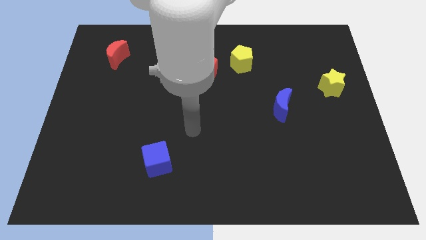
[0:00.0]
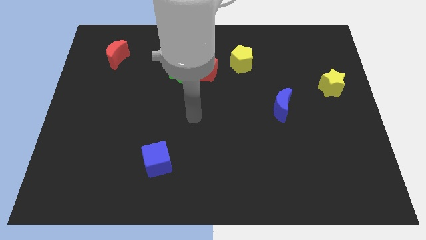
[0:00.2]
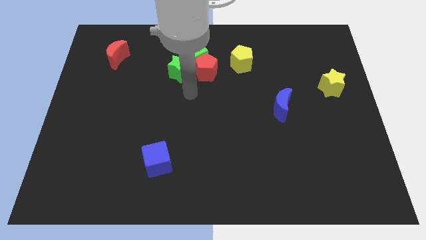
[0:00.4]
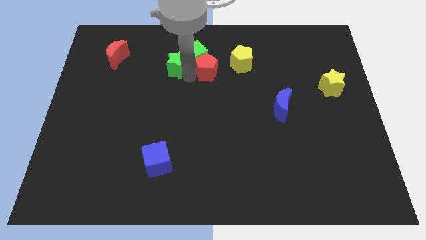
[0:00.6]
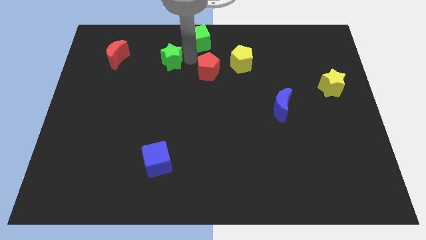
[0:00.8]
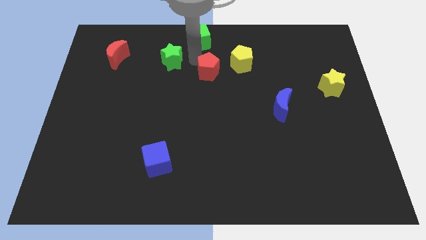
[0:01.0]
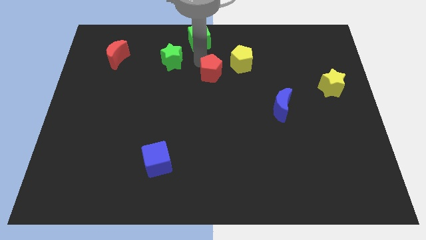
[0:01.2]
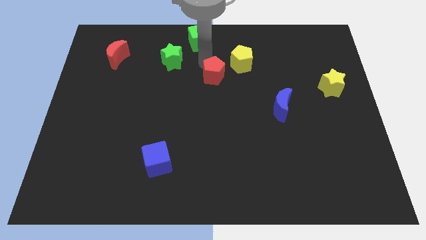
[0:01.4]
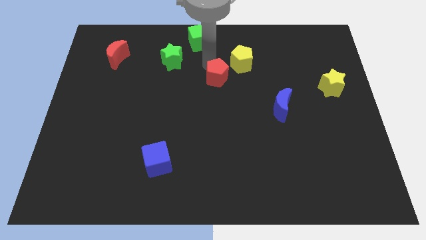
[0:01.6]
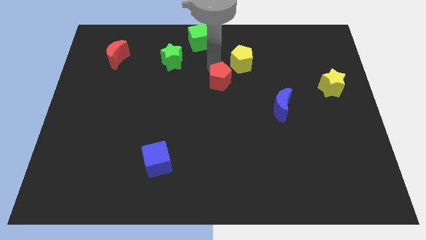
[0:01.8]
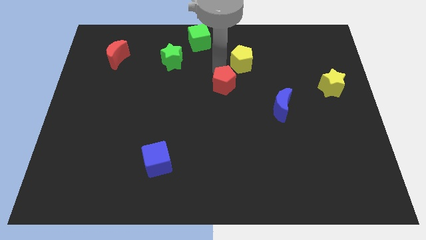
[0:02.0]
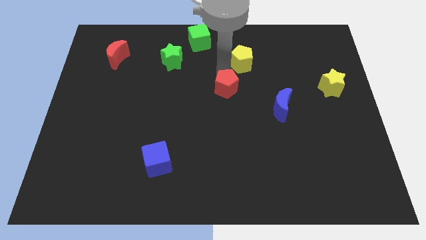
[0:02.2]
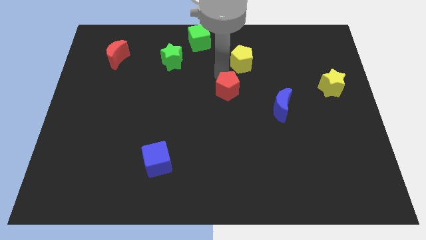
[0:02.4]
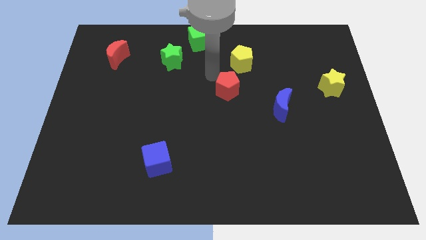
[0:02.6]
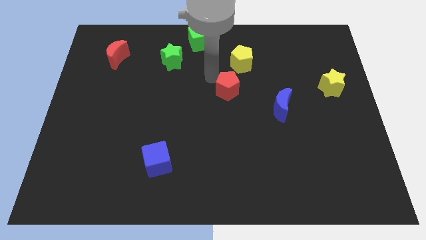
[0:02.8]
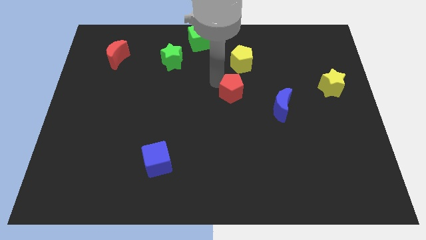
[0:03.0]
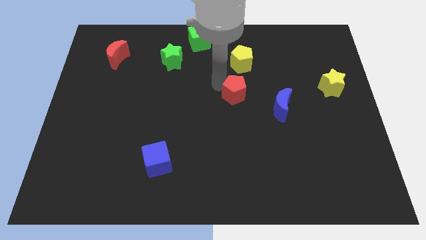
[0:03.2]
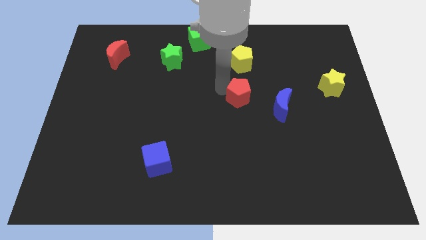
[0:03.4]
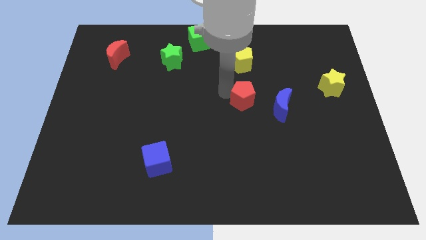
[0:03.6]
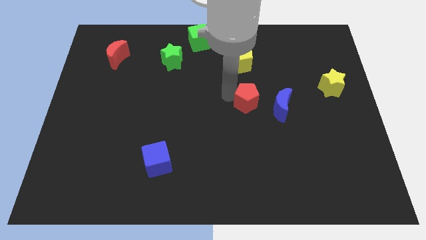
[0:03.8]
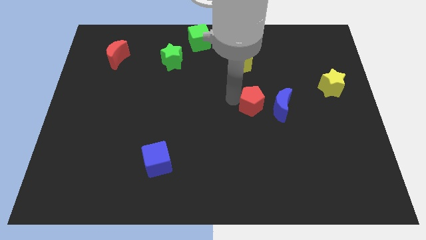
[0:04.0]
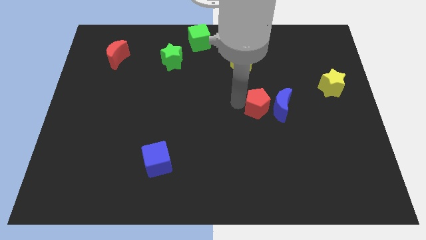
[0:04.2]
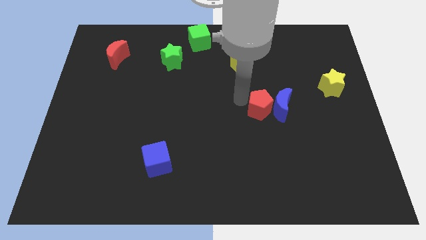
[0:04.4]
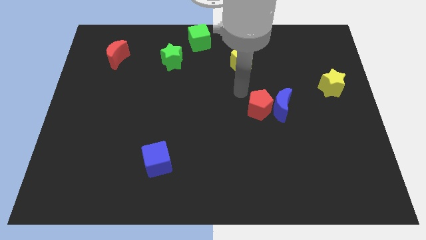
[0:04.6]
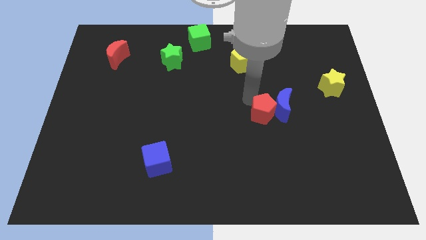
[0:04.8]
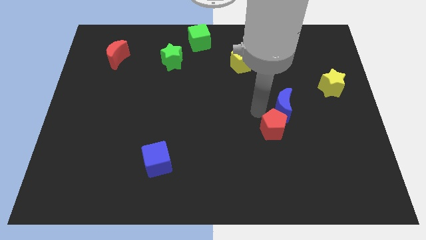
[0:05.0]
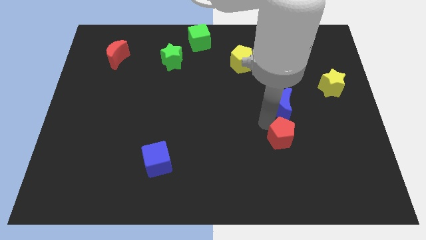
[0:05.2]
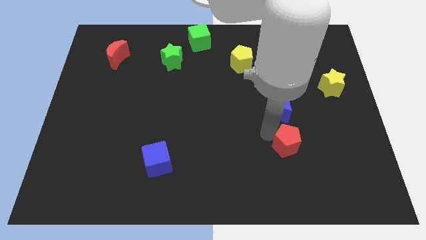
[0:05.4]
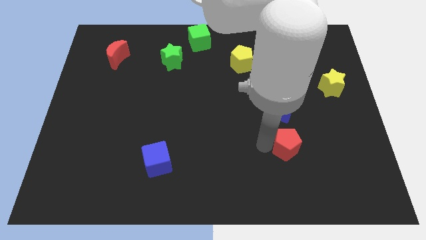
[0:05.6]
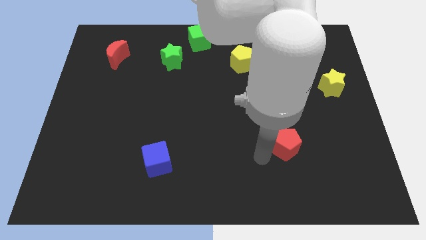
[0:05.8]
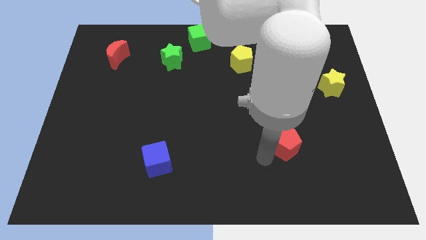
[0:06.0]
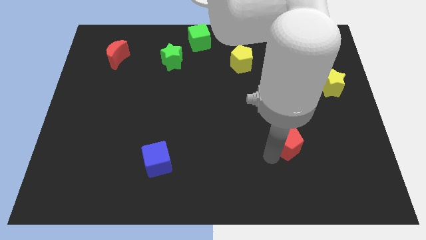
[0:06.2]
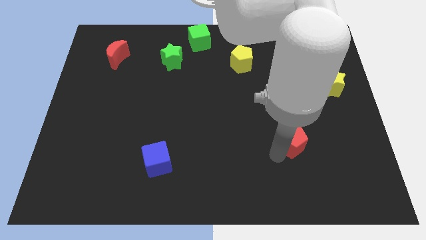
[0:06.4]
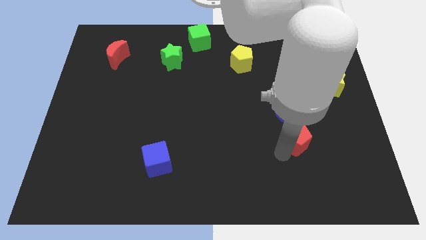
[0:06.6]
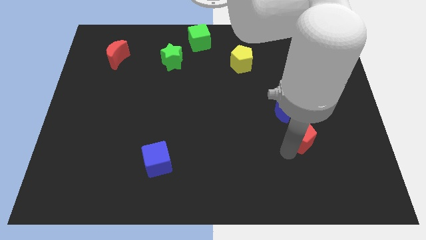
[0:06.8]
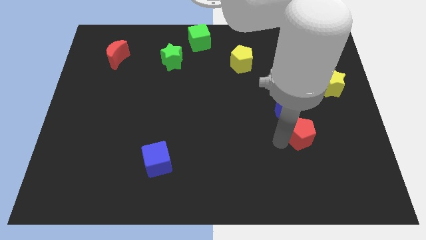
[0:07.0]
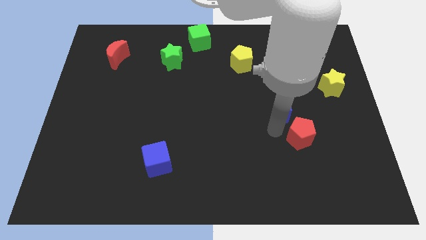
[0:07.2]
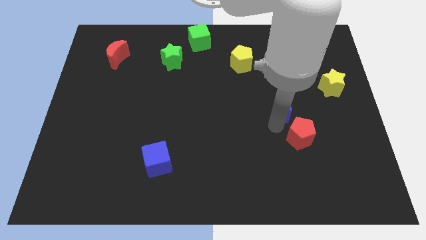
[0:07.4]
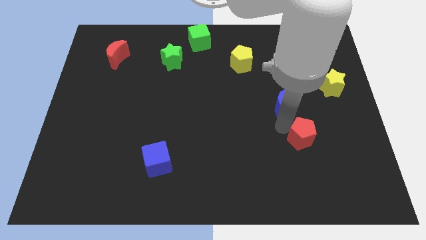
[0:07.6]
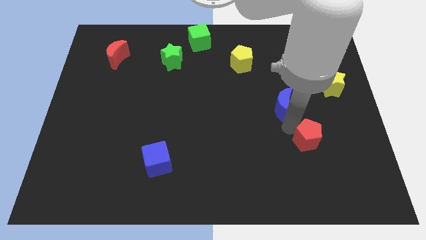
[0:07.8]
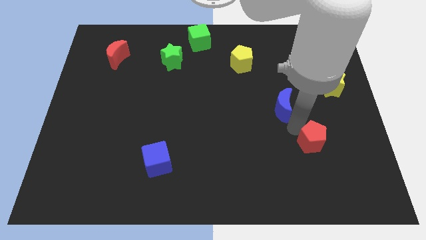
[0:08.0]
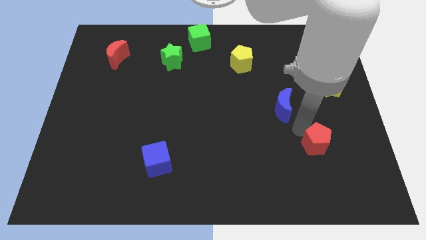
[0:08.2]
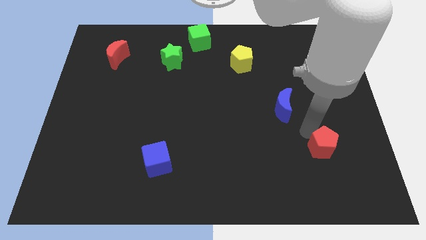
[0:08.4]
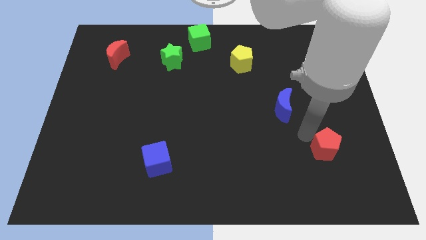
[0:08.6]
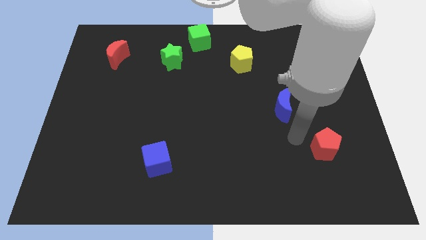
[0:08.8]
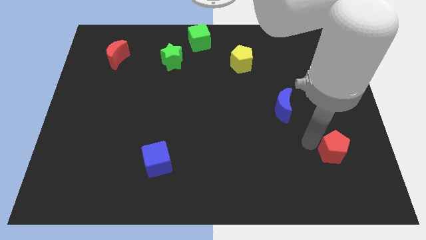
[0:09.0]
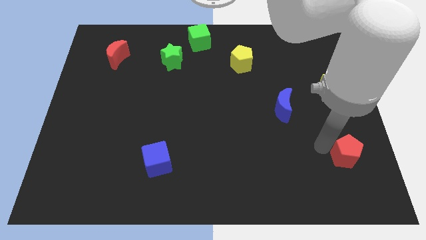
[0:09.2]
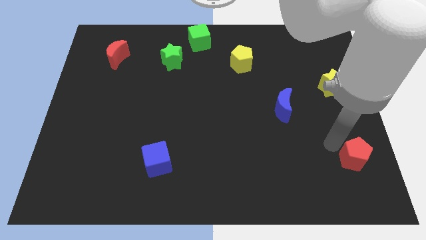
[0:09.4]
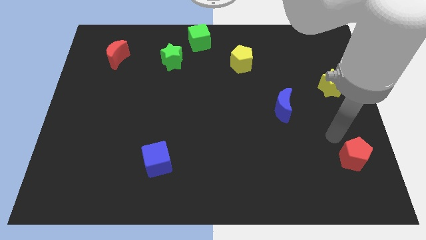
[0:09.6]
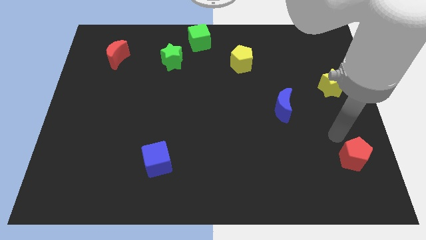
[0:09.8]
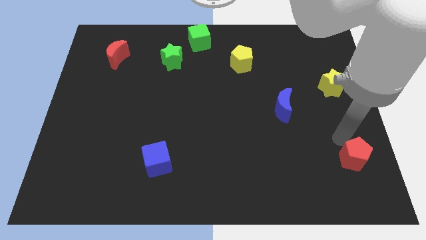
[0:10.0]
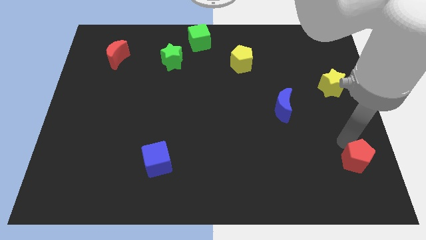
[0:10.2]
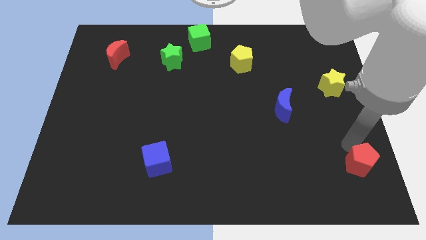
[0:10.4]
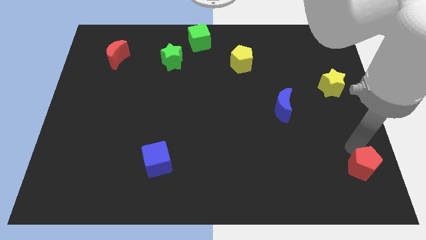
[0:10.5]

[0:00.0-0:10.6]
put the red pentagon to the lower right corner

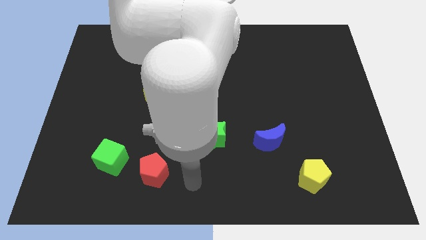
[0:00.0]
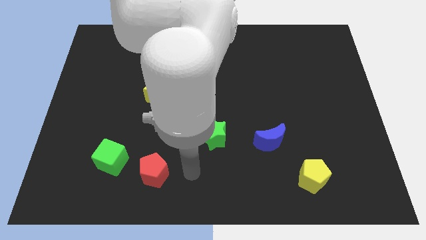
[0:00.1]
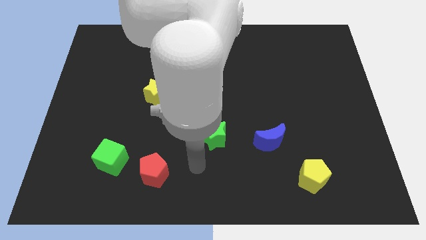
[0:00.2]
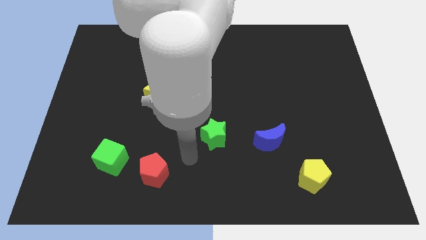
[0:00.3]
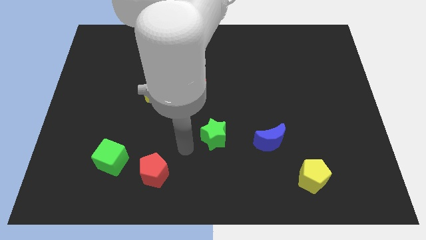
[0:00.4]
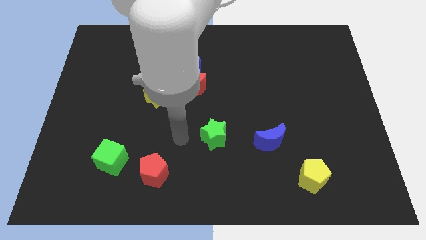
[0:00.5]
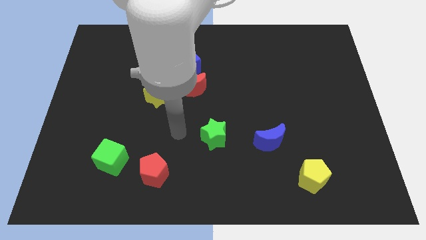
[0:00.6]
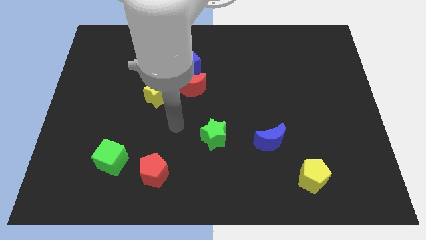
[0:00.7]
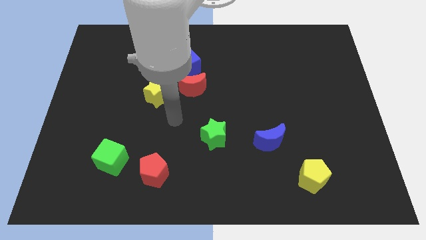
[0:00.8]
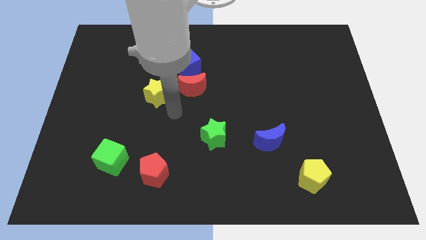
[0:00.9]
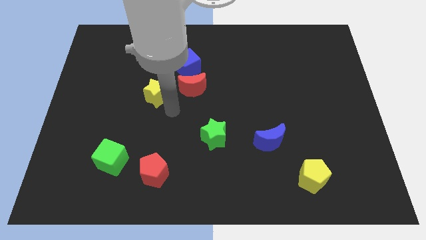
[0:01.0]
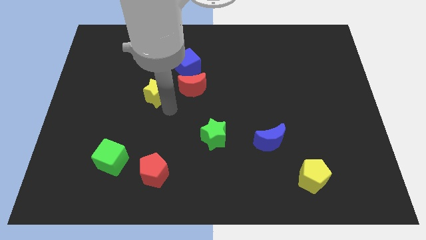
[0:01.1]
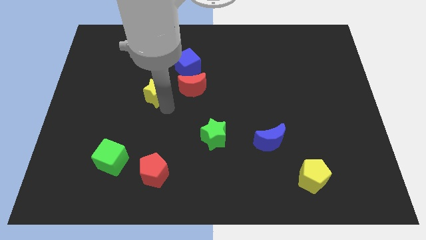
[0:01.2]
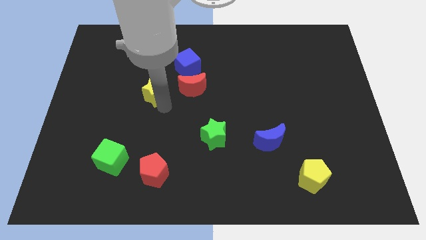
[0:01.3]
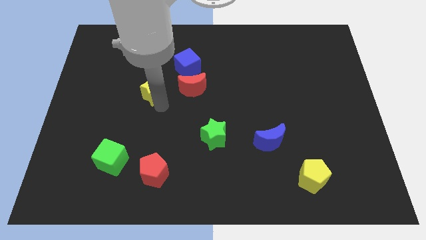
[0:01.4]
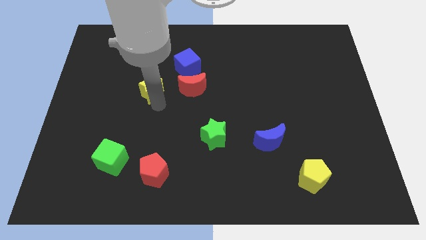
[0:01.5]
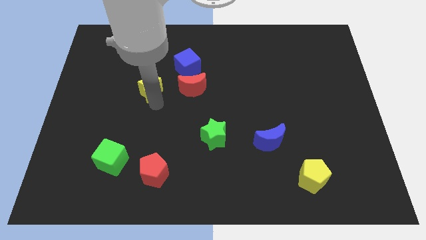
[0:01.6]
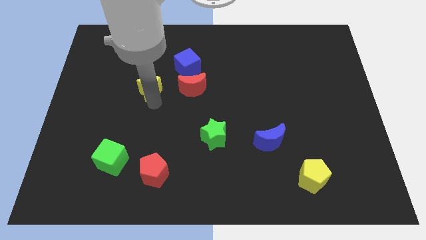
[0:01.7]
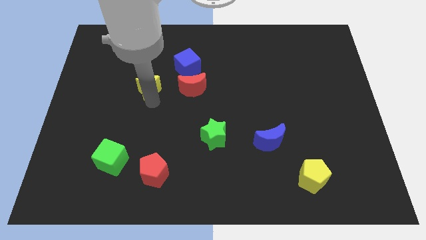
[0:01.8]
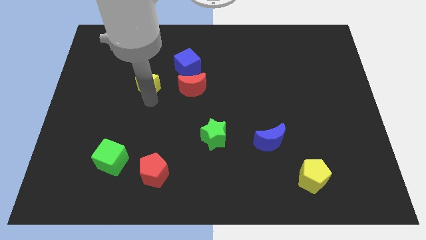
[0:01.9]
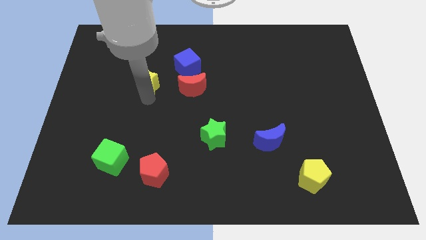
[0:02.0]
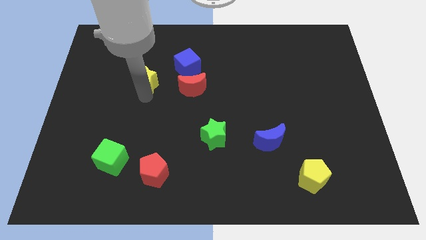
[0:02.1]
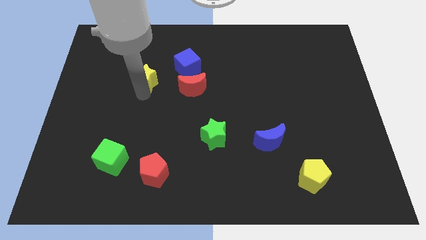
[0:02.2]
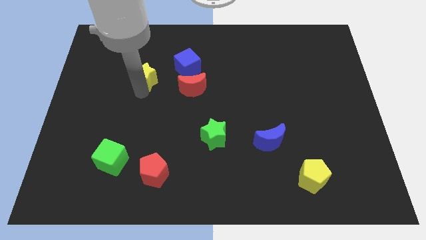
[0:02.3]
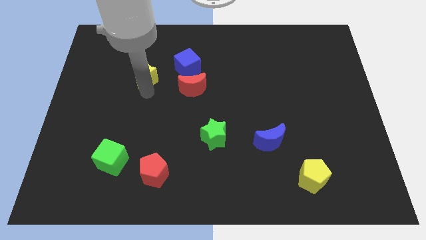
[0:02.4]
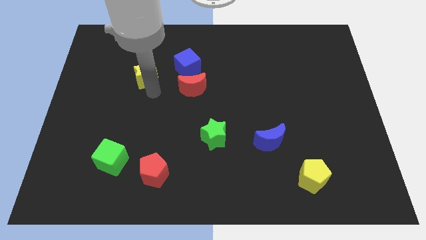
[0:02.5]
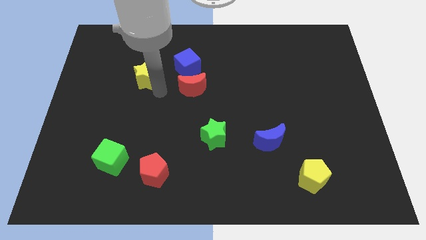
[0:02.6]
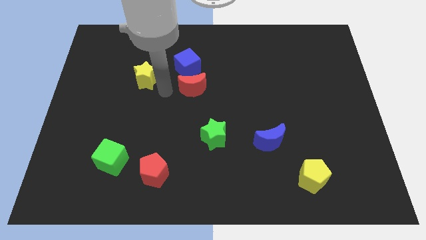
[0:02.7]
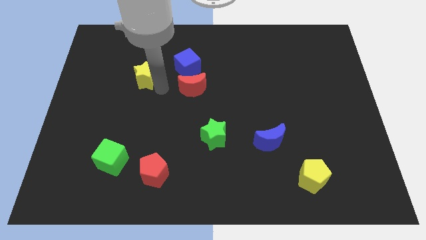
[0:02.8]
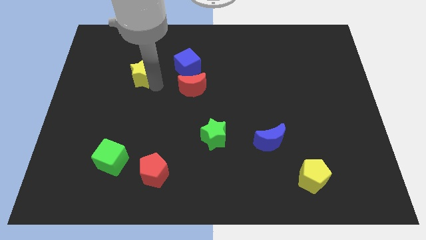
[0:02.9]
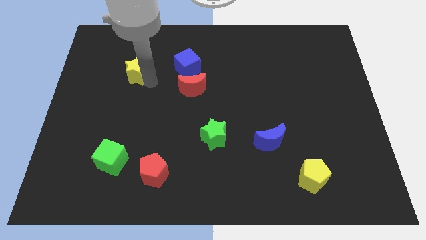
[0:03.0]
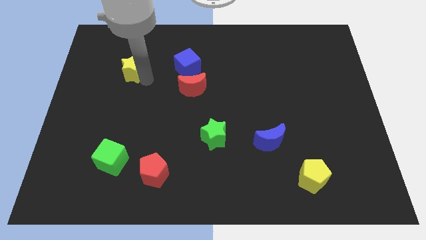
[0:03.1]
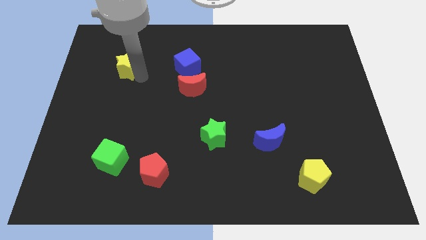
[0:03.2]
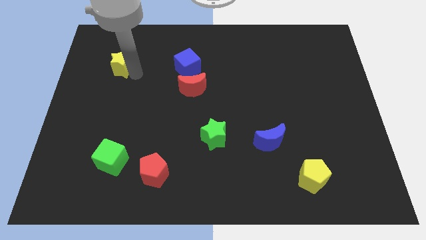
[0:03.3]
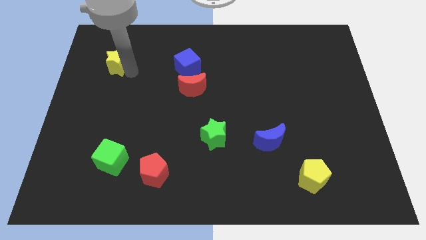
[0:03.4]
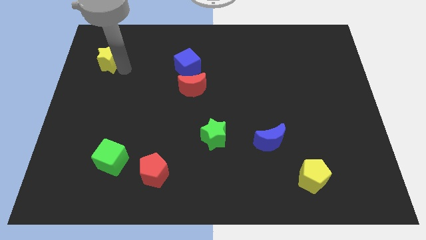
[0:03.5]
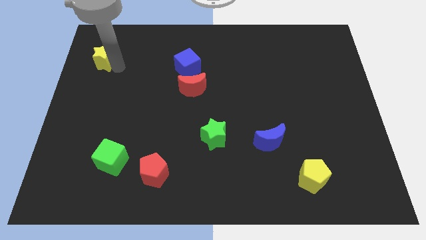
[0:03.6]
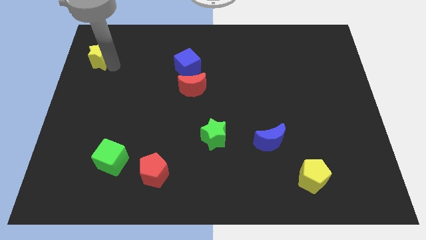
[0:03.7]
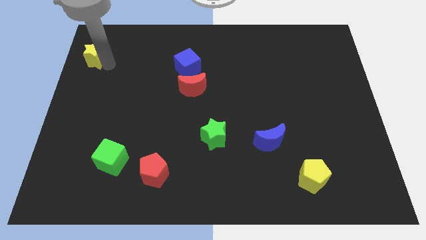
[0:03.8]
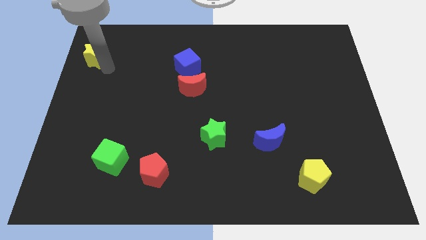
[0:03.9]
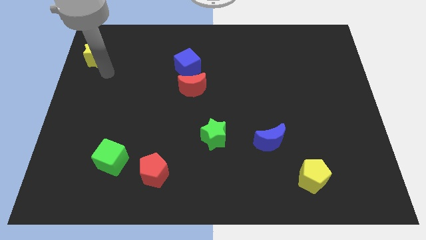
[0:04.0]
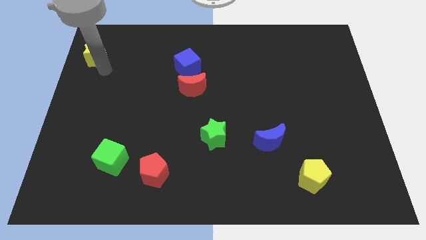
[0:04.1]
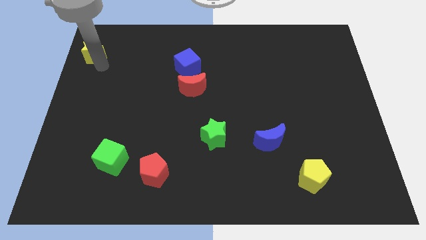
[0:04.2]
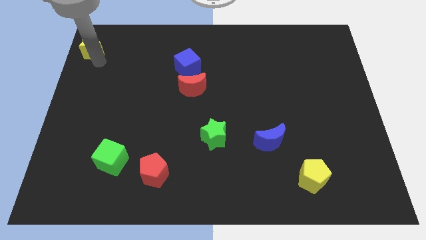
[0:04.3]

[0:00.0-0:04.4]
slide the yellow star to the upper left corner
